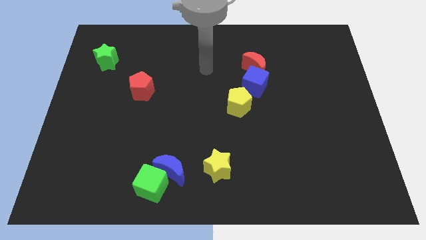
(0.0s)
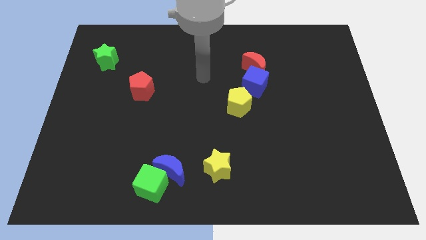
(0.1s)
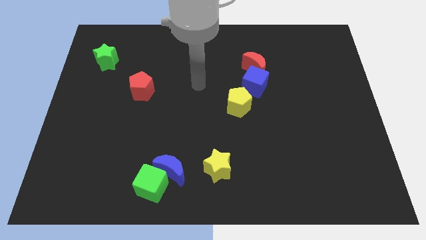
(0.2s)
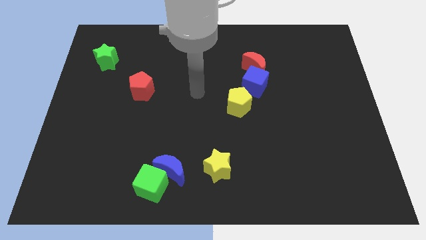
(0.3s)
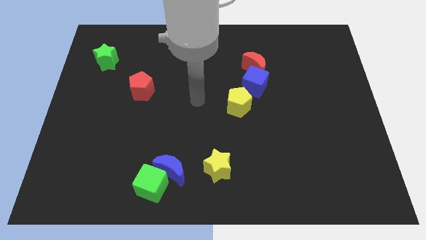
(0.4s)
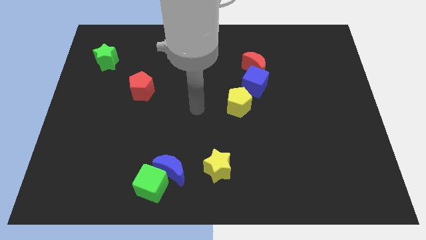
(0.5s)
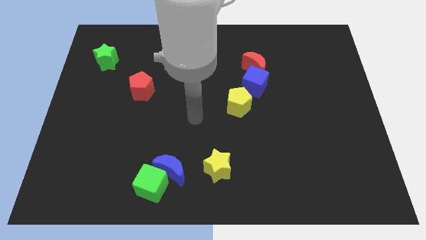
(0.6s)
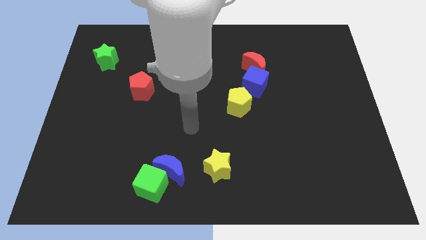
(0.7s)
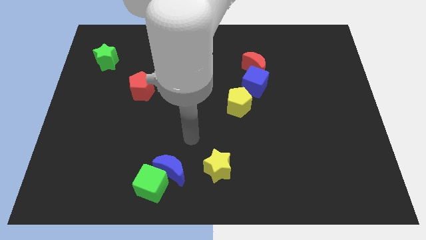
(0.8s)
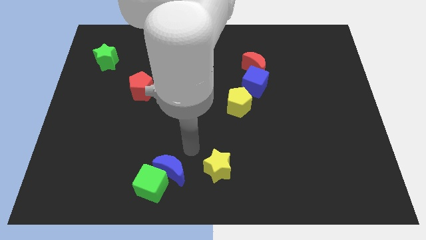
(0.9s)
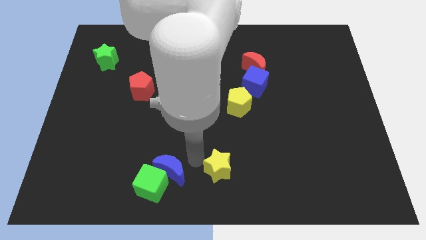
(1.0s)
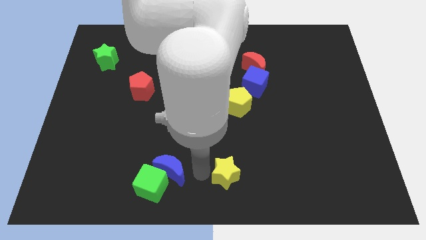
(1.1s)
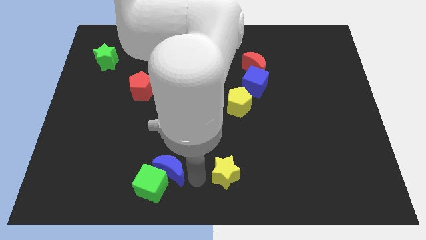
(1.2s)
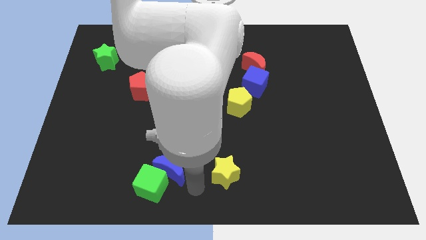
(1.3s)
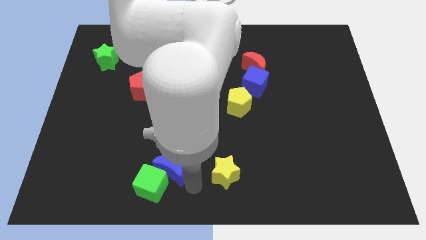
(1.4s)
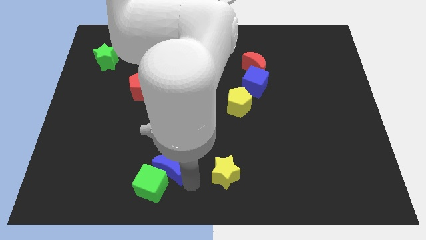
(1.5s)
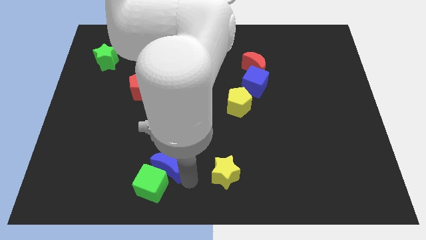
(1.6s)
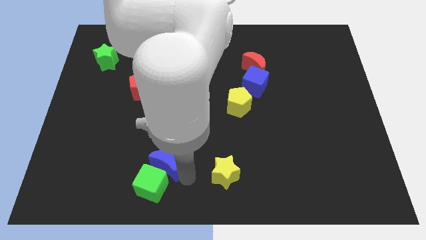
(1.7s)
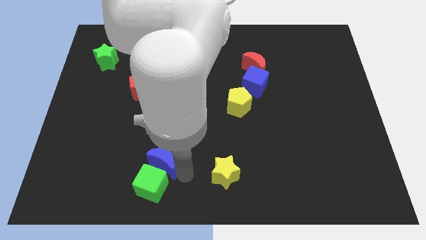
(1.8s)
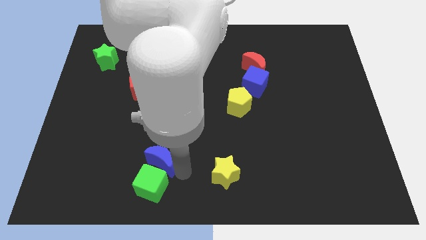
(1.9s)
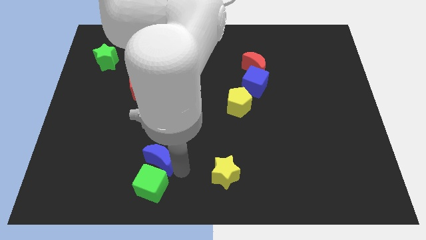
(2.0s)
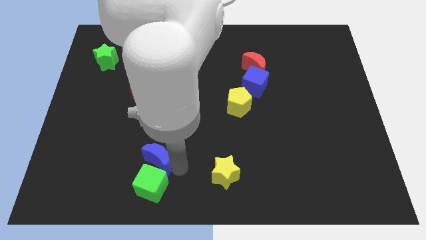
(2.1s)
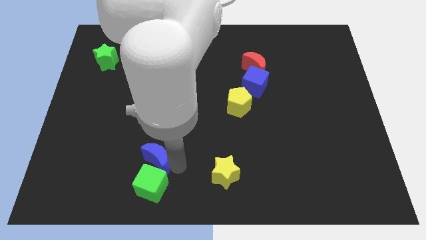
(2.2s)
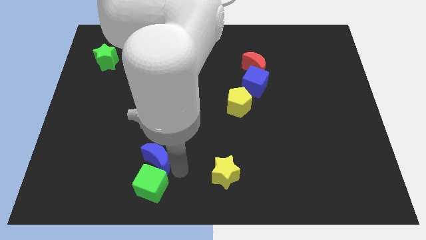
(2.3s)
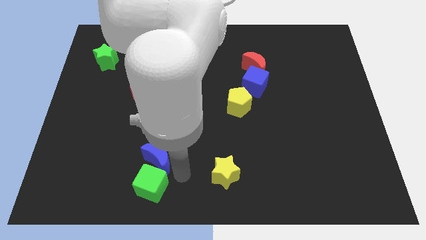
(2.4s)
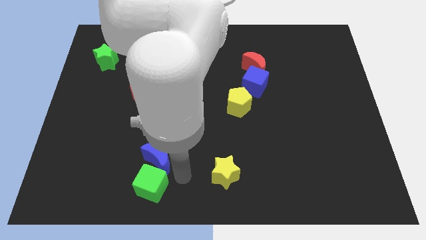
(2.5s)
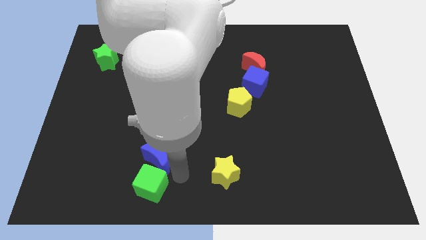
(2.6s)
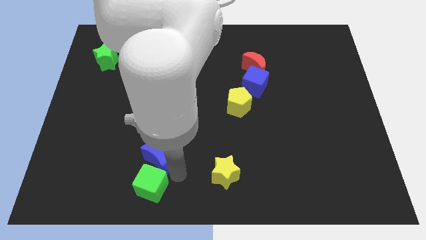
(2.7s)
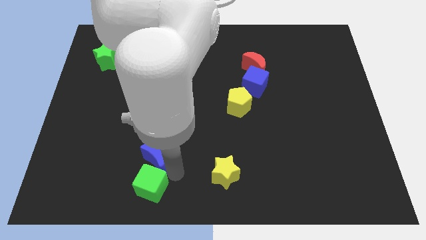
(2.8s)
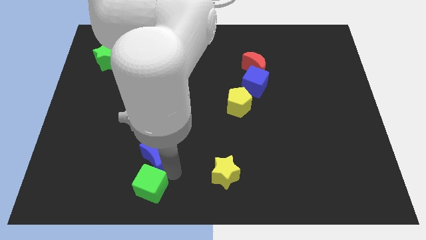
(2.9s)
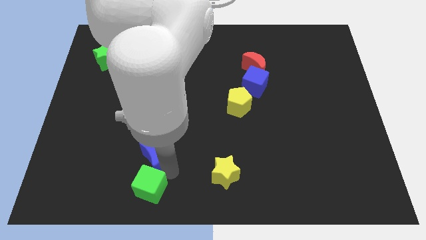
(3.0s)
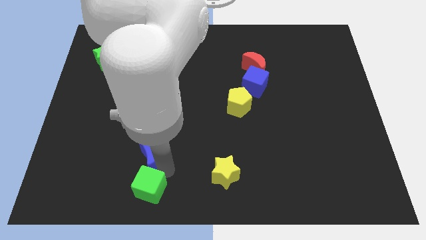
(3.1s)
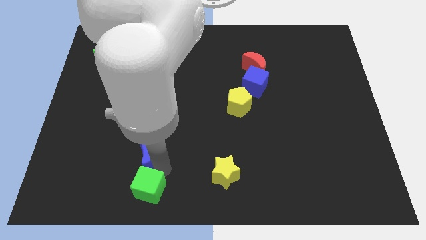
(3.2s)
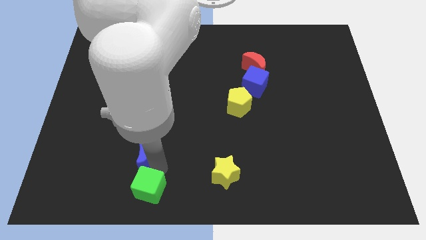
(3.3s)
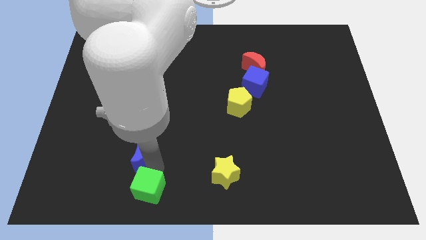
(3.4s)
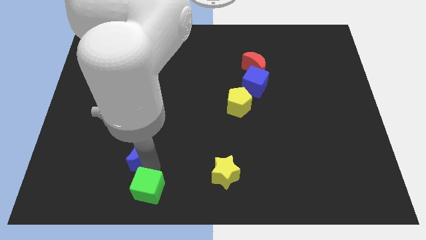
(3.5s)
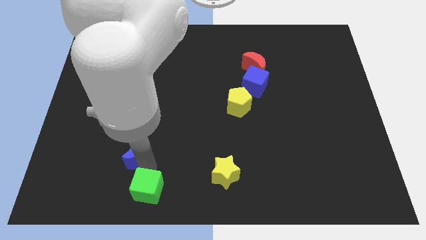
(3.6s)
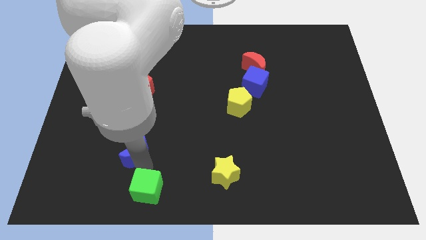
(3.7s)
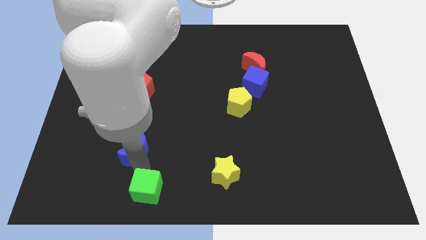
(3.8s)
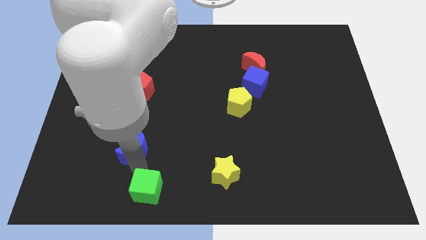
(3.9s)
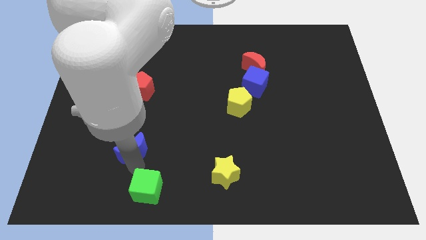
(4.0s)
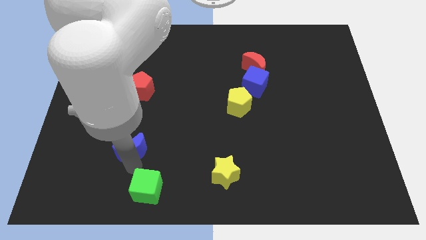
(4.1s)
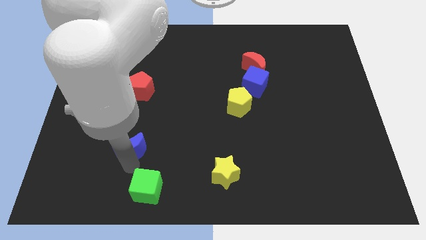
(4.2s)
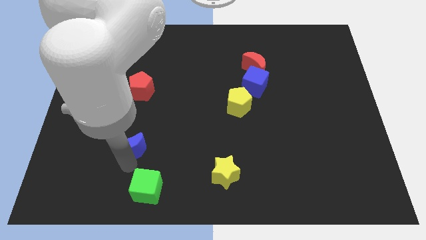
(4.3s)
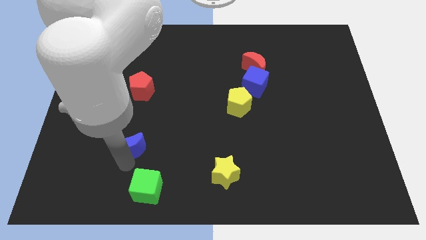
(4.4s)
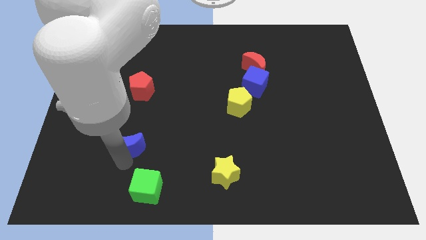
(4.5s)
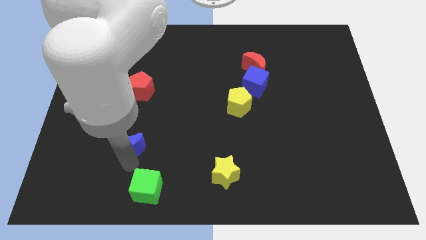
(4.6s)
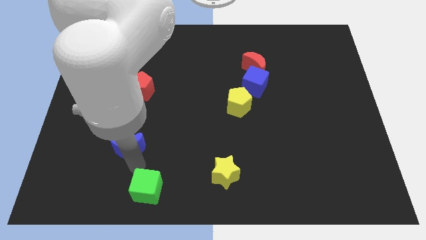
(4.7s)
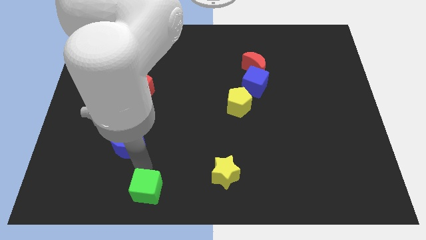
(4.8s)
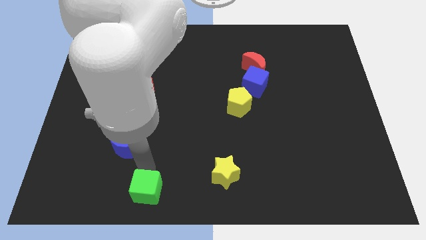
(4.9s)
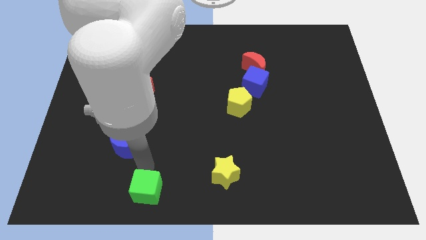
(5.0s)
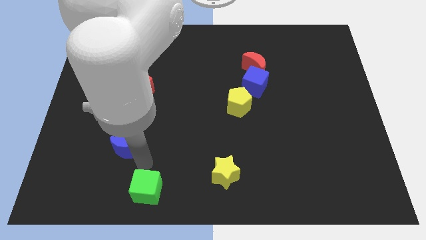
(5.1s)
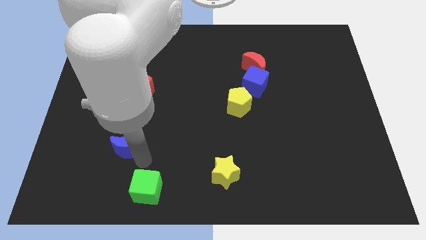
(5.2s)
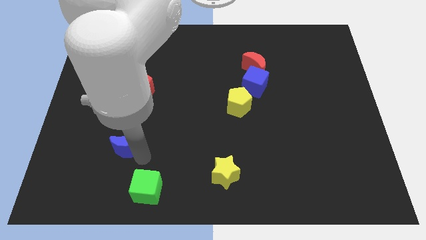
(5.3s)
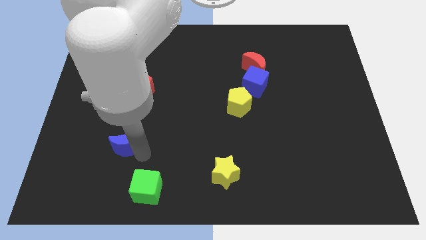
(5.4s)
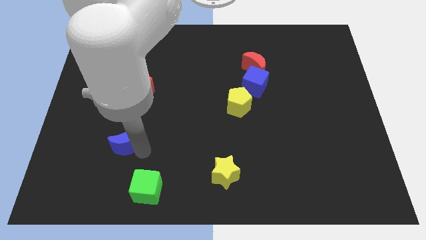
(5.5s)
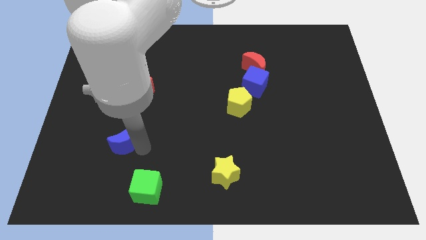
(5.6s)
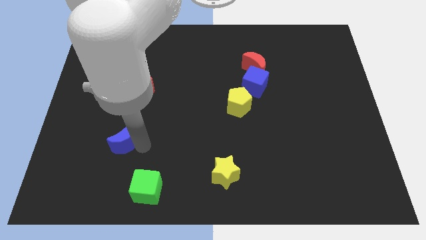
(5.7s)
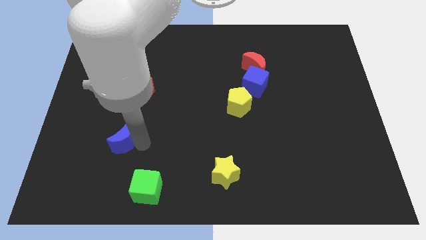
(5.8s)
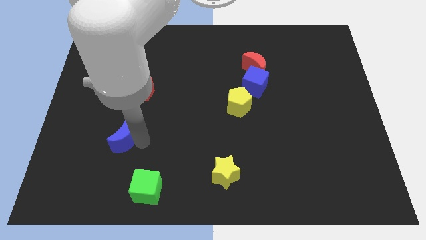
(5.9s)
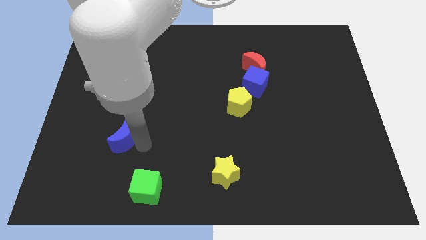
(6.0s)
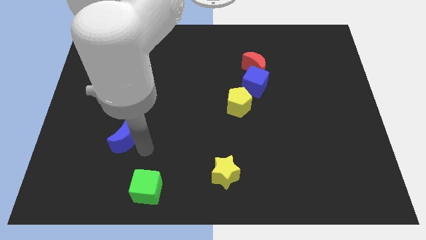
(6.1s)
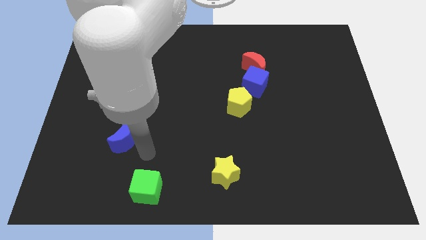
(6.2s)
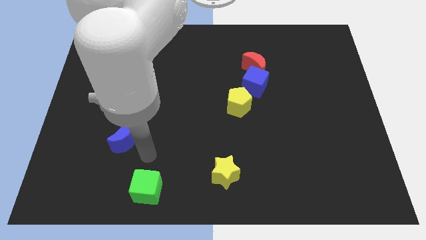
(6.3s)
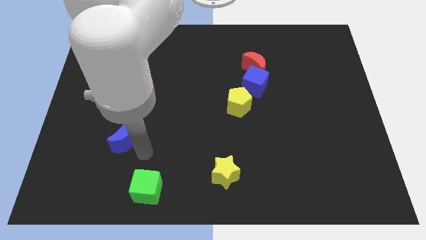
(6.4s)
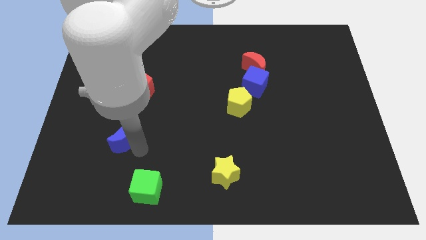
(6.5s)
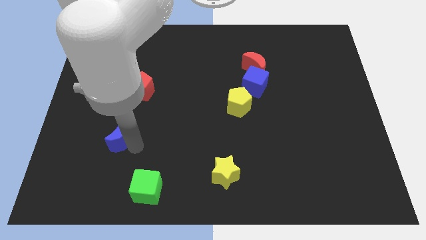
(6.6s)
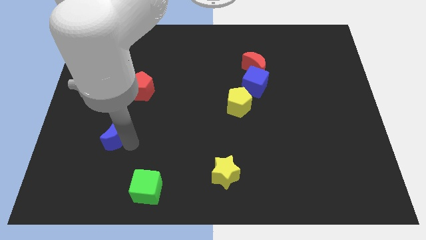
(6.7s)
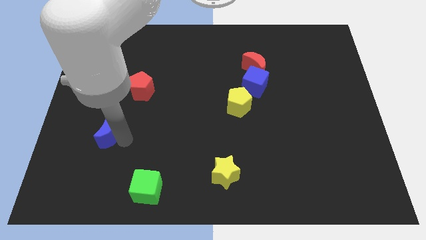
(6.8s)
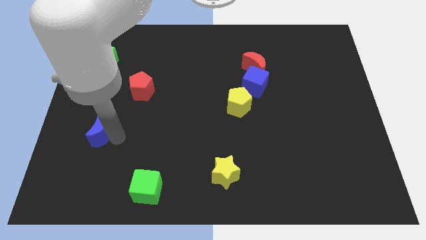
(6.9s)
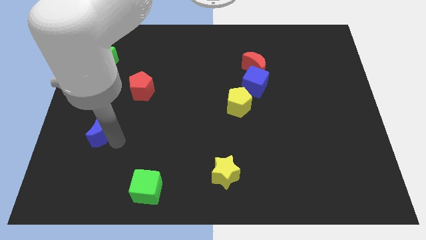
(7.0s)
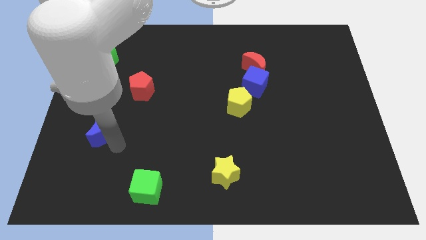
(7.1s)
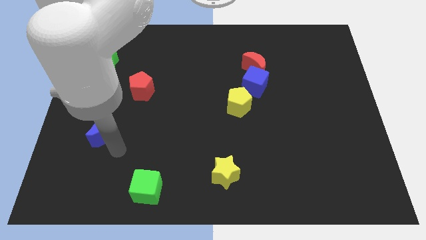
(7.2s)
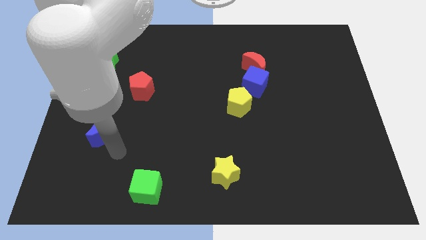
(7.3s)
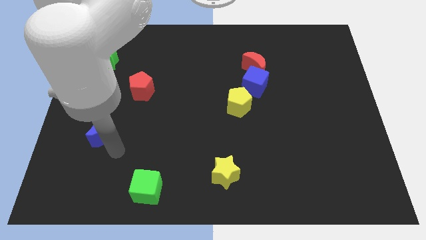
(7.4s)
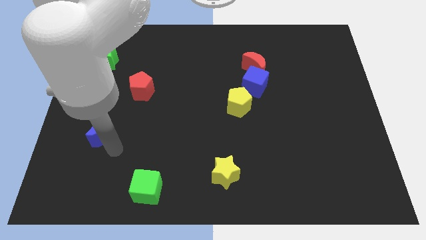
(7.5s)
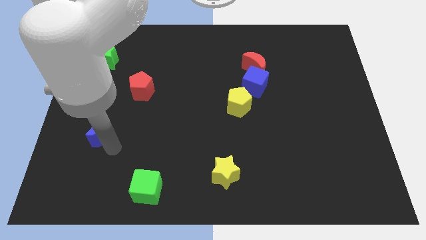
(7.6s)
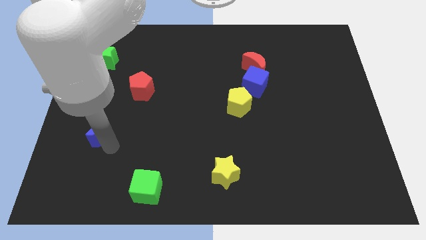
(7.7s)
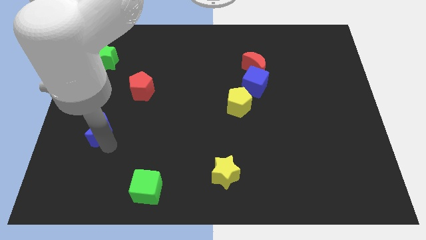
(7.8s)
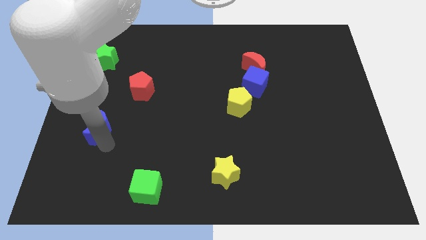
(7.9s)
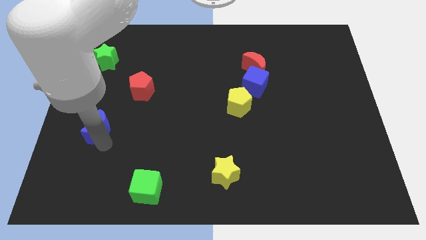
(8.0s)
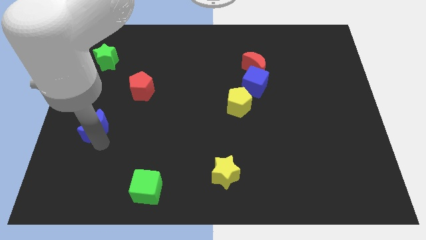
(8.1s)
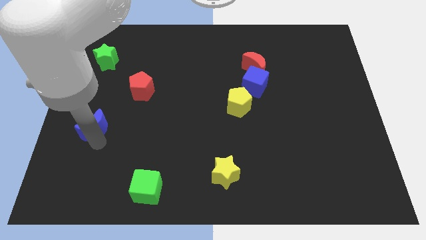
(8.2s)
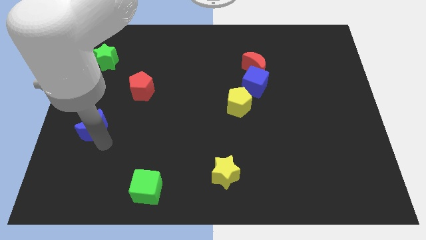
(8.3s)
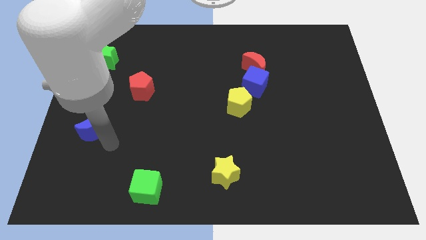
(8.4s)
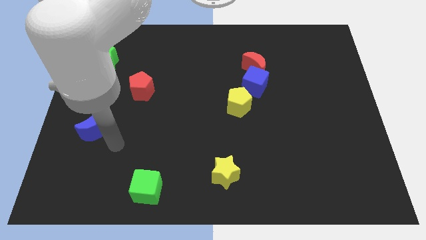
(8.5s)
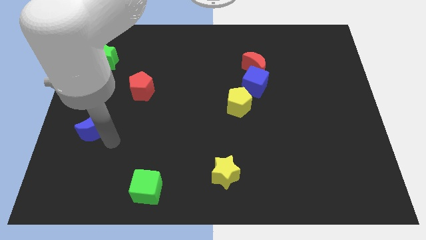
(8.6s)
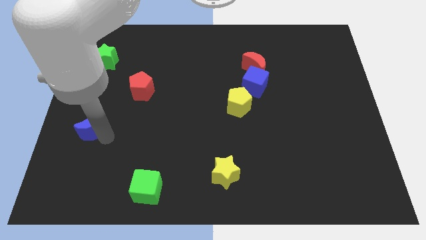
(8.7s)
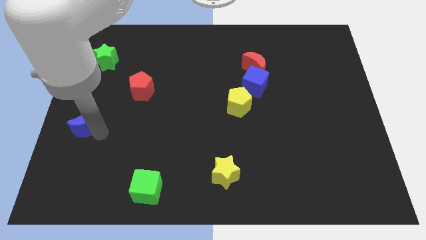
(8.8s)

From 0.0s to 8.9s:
push the blue moon to the center left
